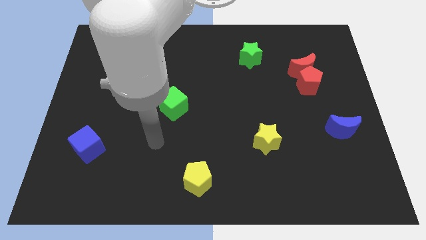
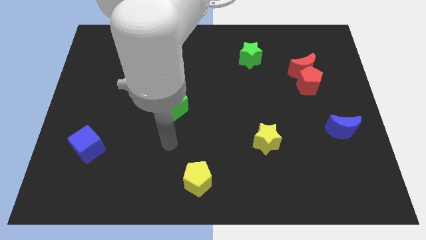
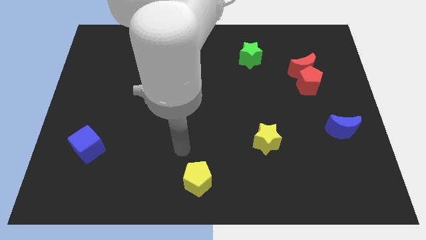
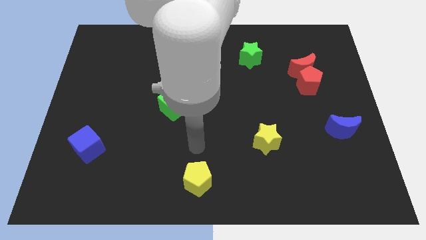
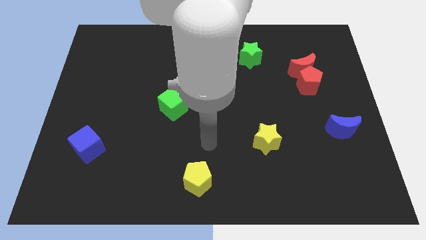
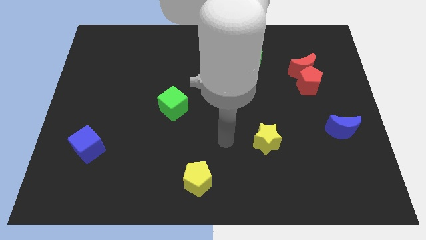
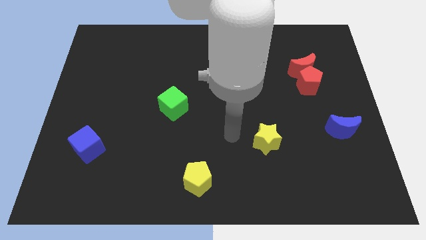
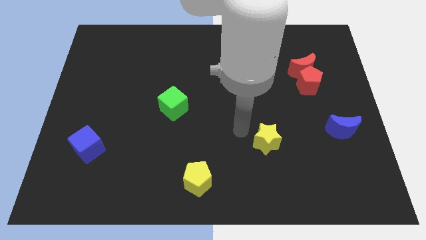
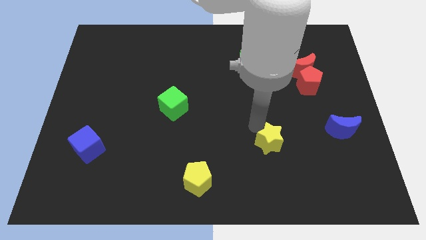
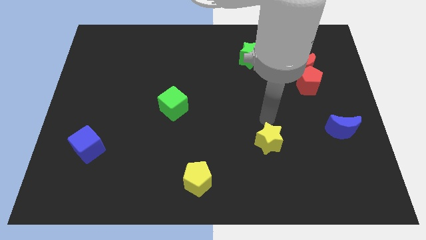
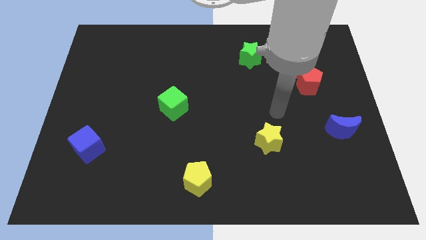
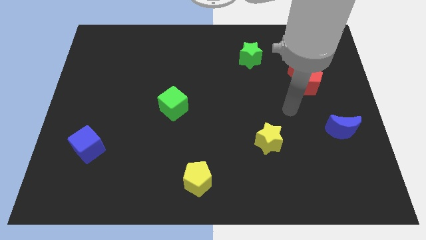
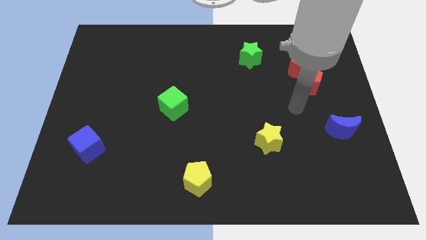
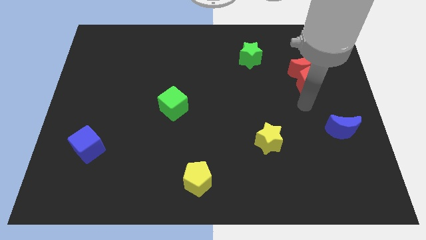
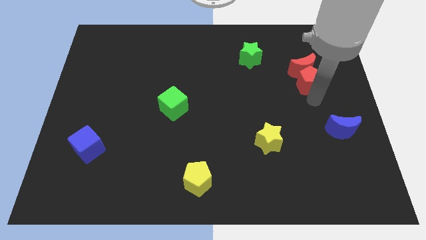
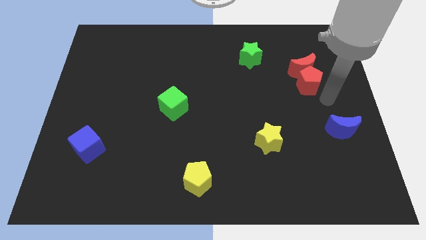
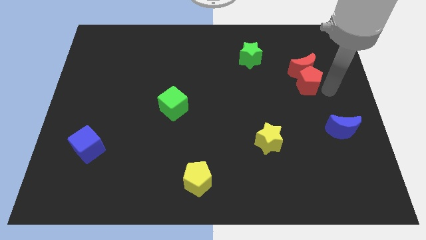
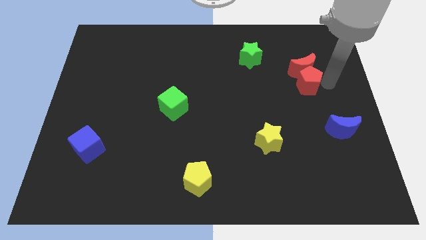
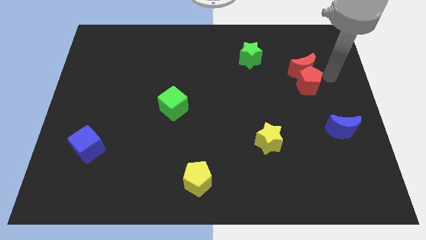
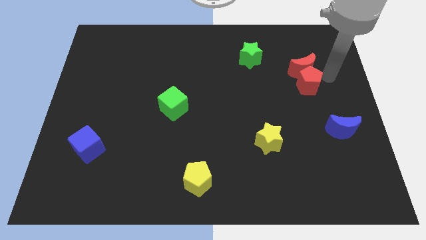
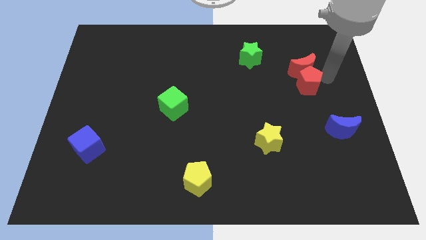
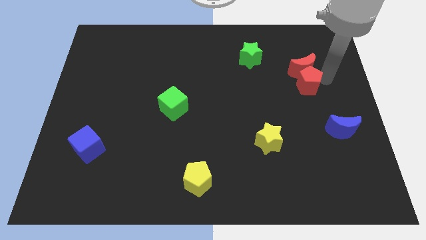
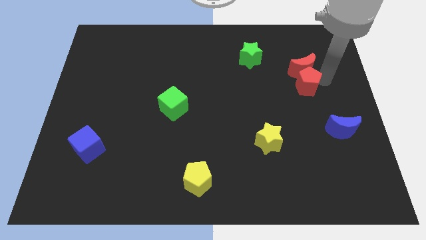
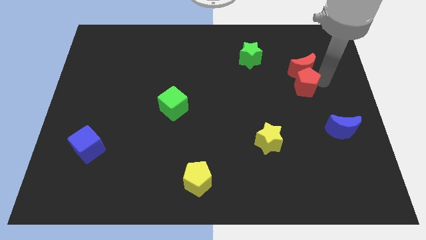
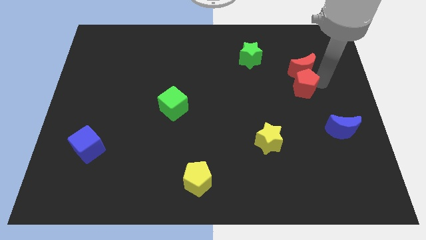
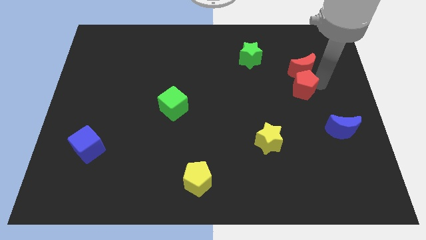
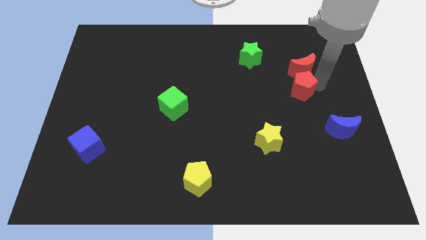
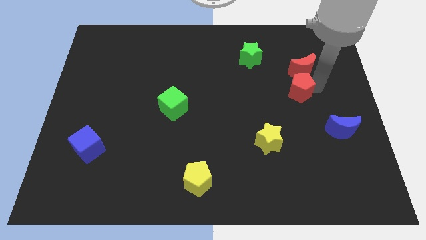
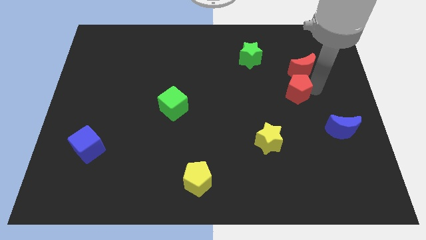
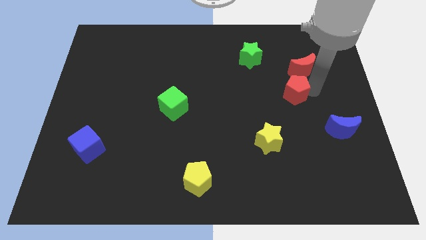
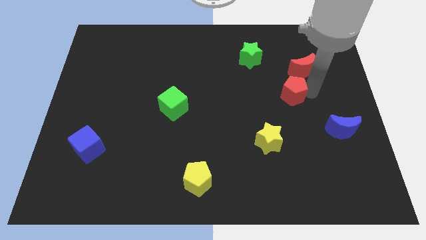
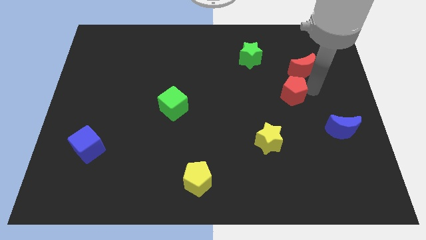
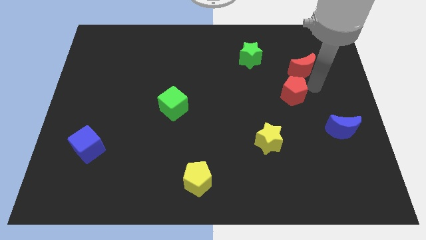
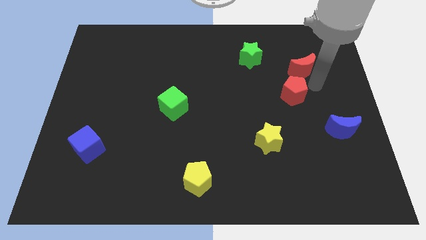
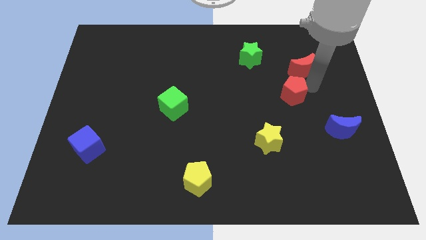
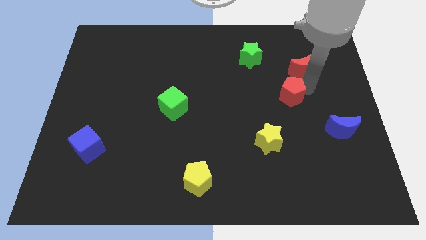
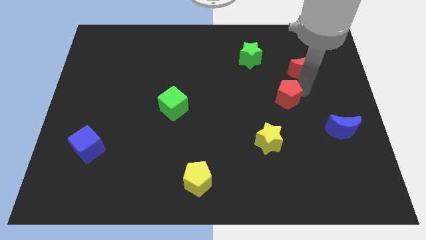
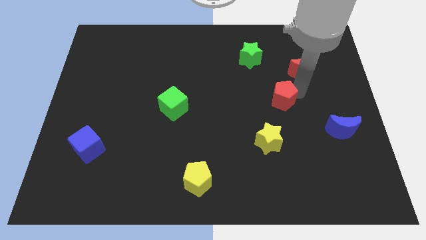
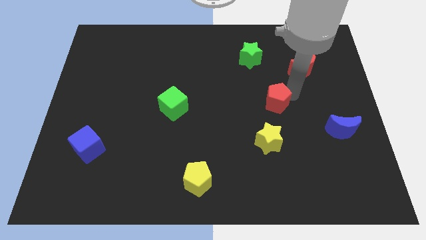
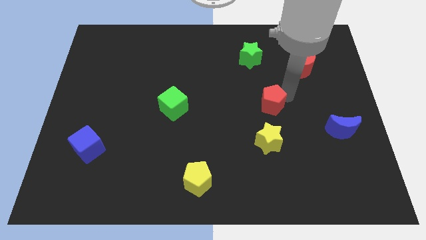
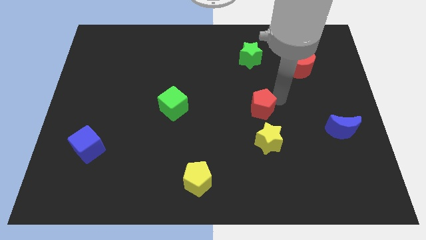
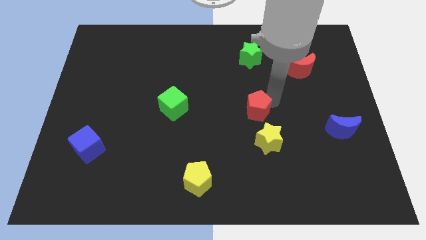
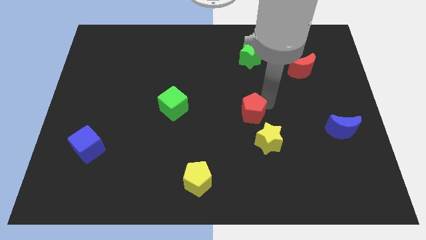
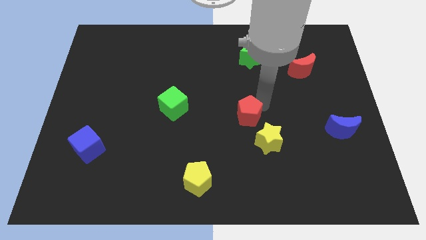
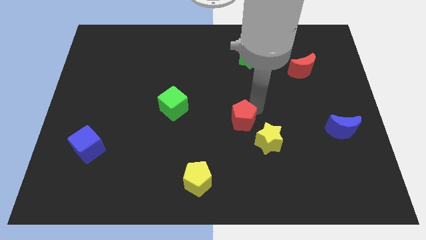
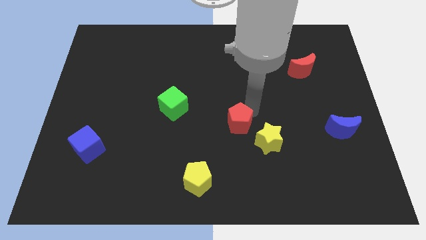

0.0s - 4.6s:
move the red pentagon downwards and to the left

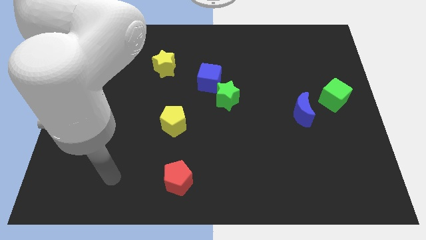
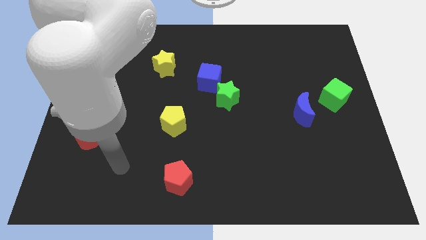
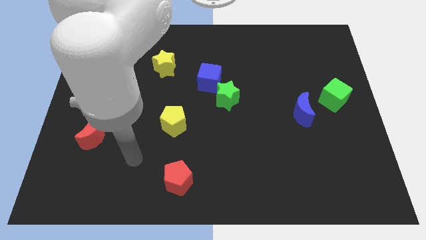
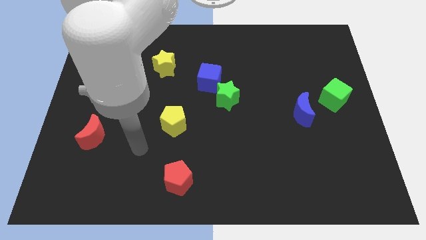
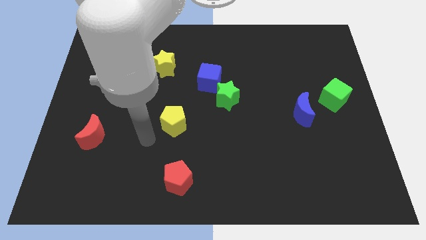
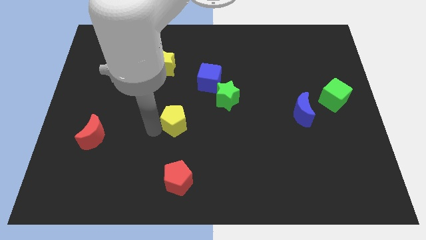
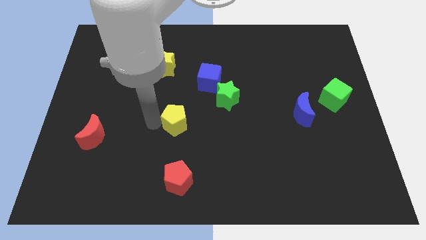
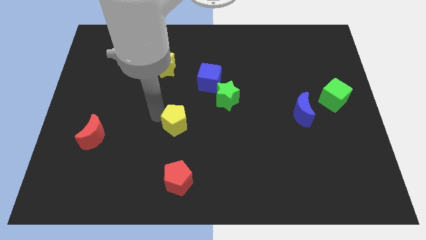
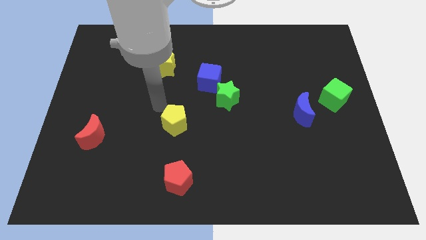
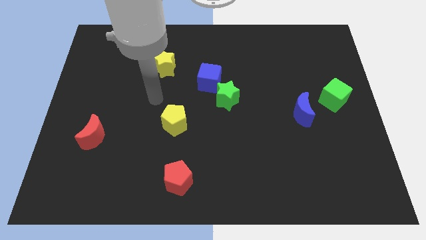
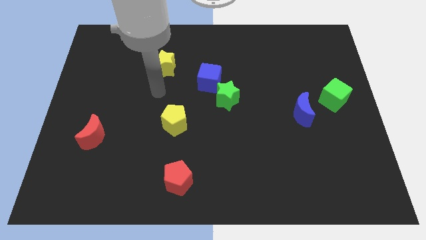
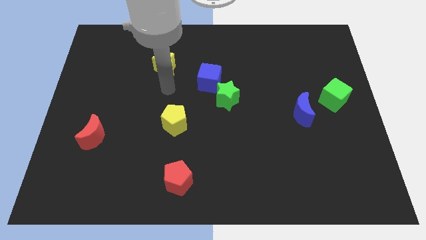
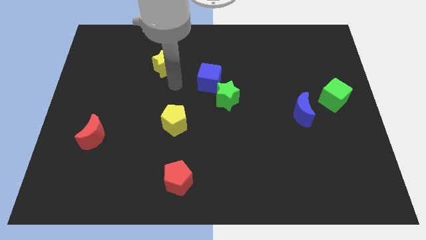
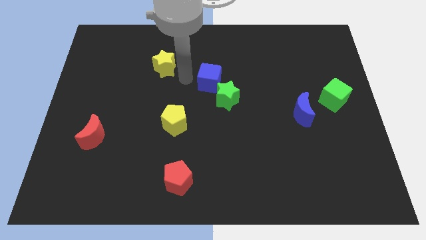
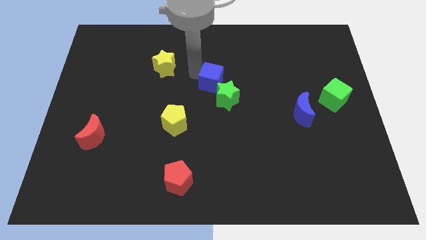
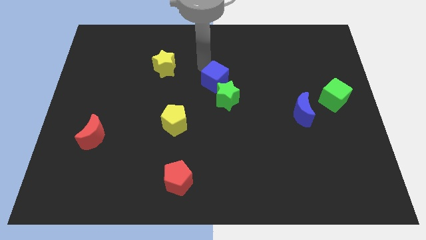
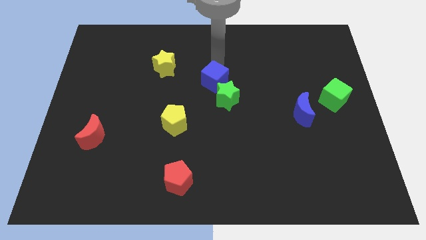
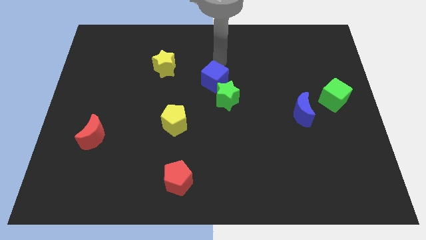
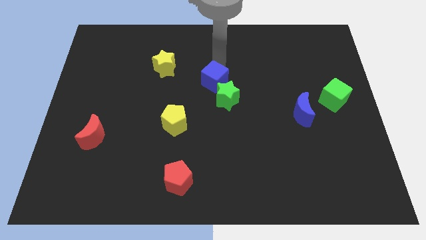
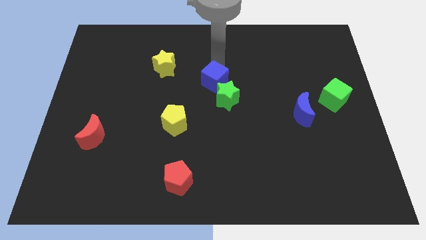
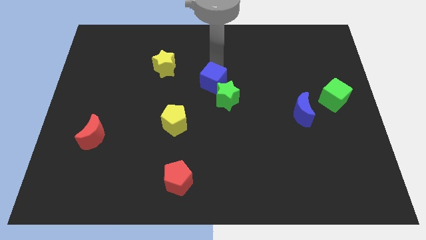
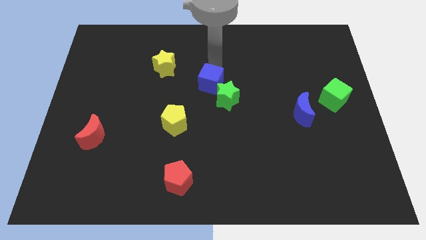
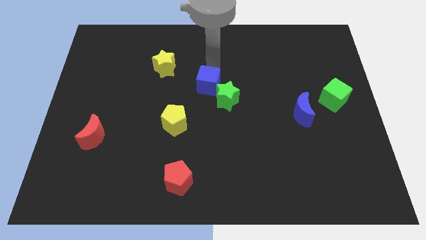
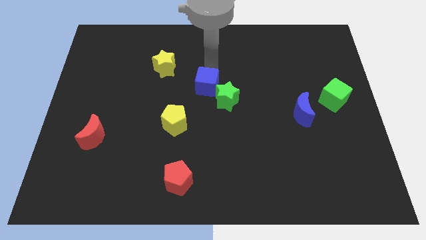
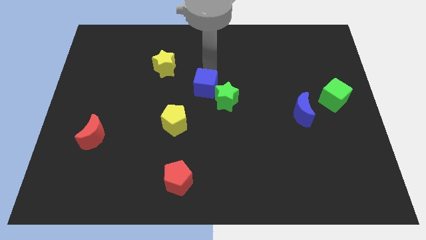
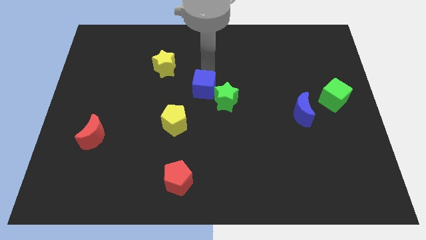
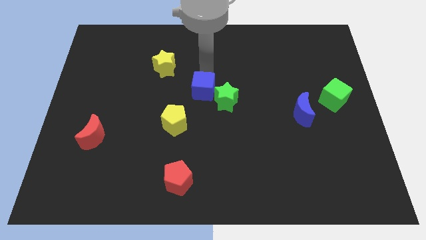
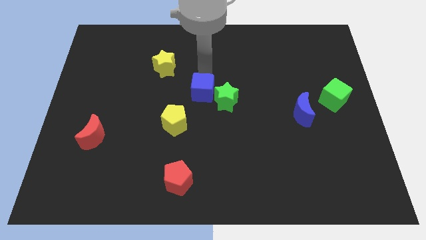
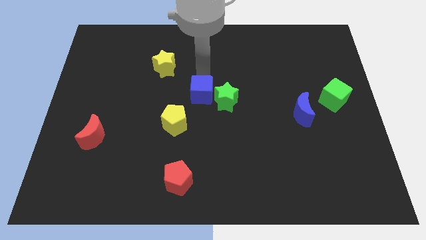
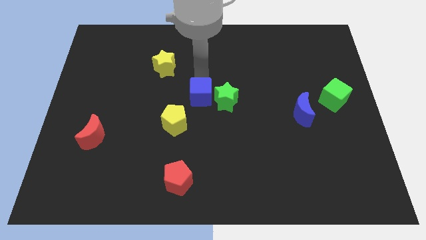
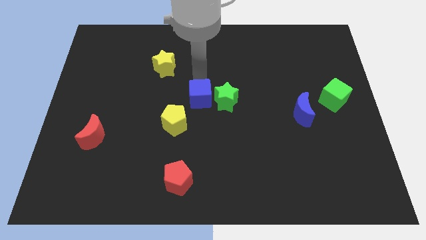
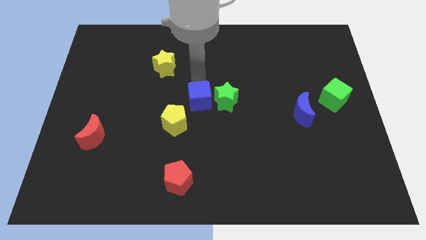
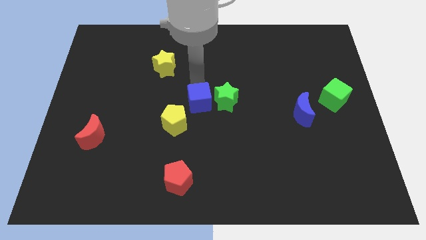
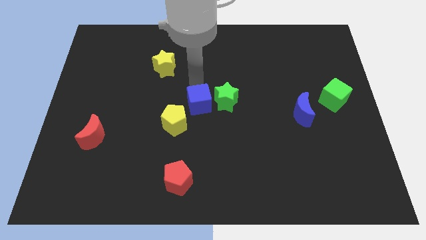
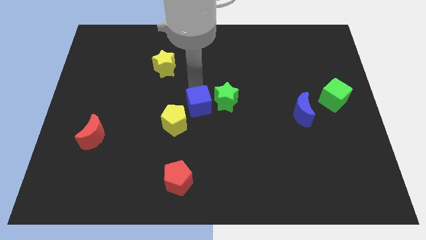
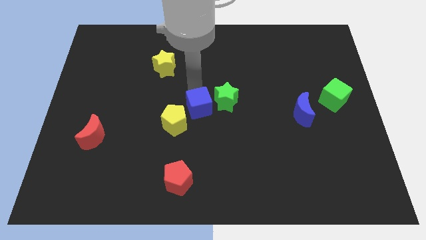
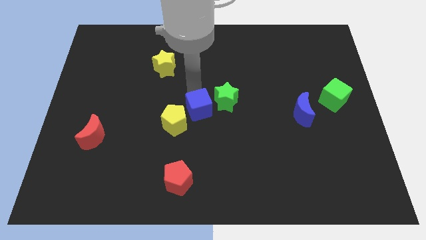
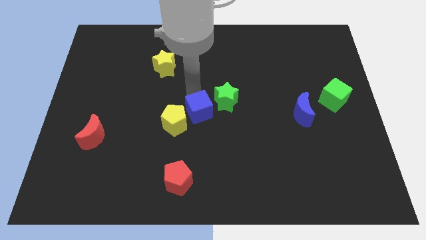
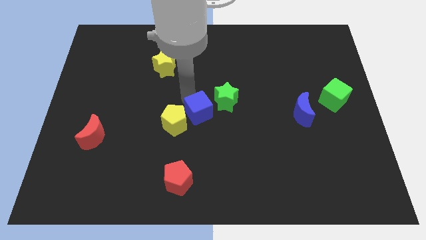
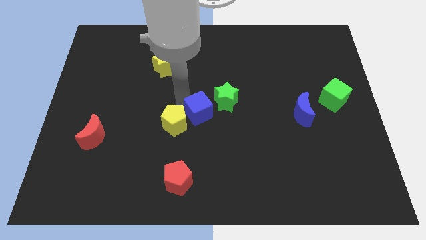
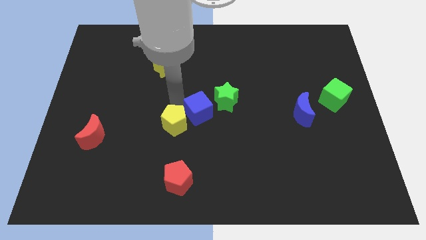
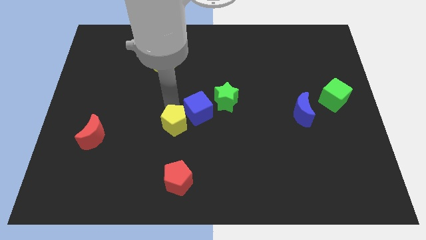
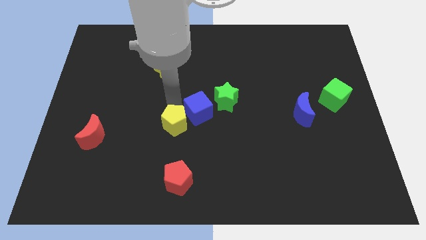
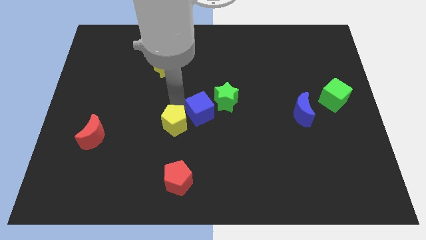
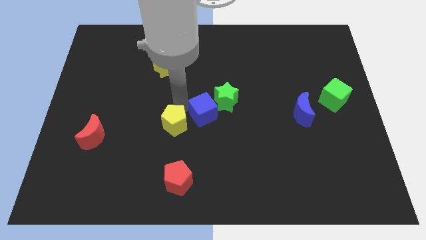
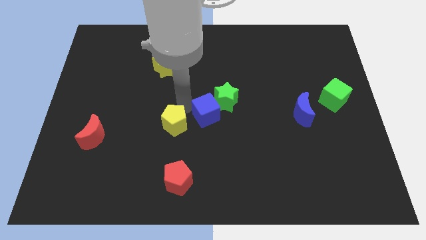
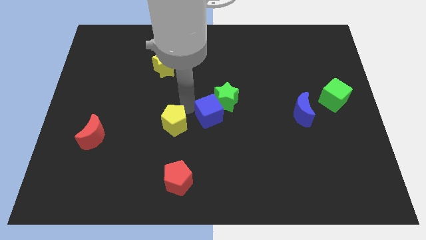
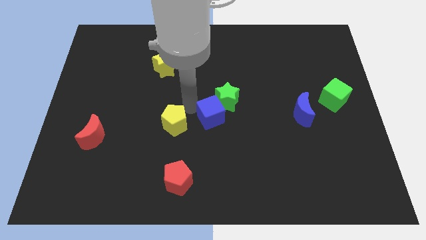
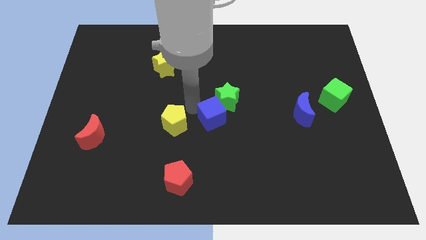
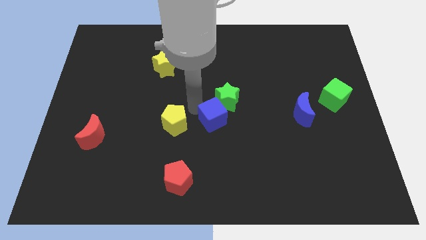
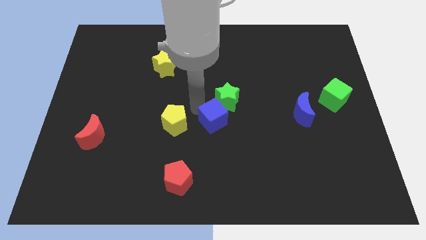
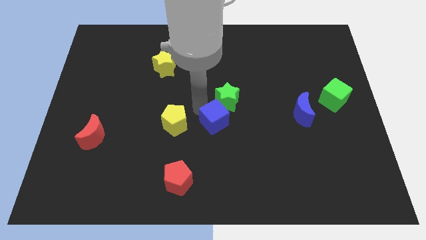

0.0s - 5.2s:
push the blue cube a little diagonally downwards and to the right
